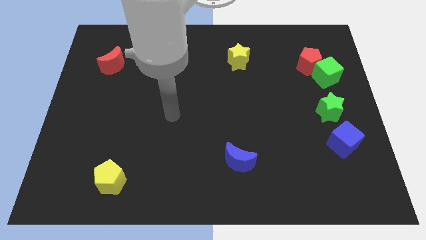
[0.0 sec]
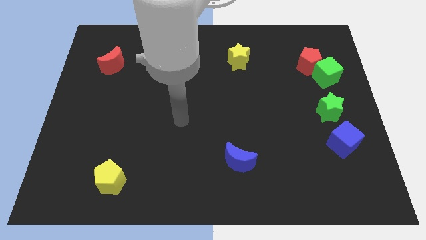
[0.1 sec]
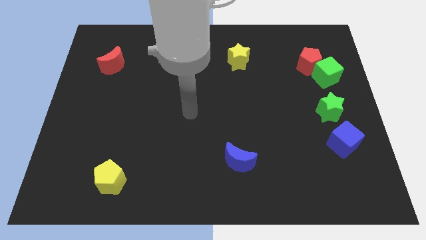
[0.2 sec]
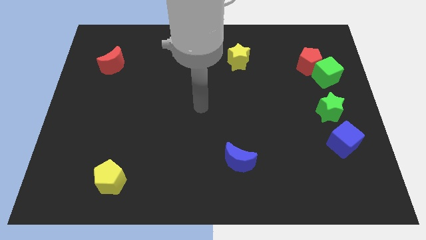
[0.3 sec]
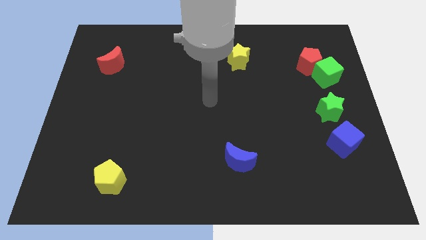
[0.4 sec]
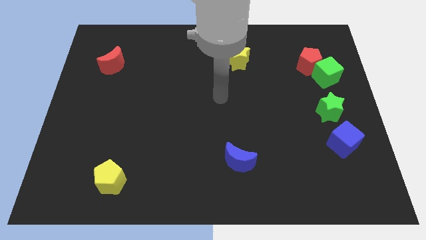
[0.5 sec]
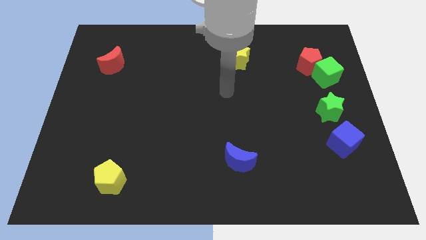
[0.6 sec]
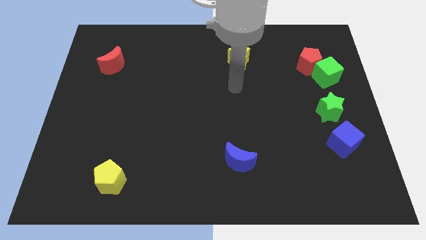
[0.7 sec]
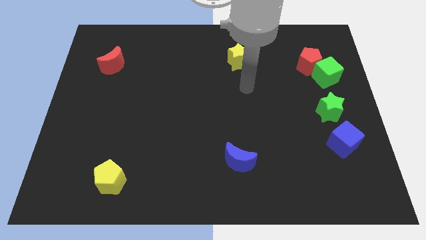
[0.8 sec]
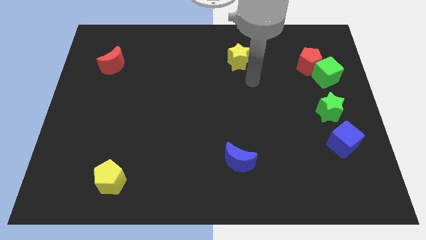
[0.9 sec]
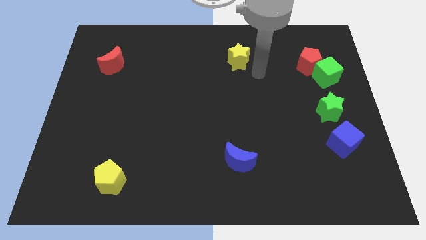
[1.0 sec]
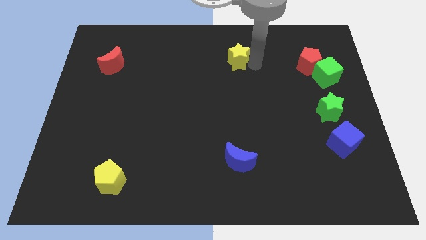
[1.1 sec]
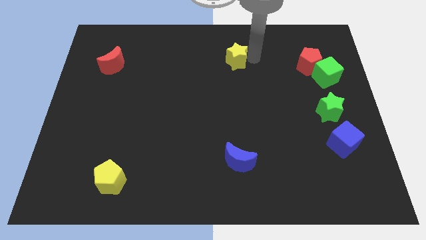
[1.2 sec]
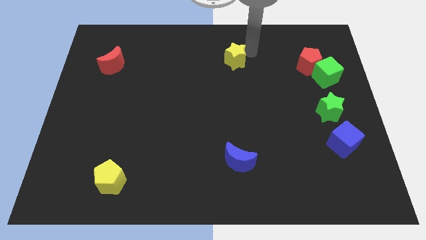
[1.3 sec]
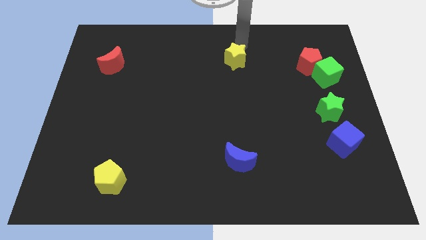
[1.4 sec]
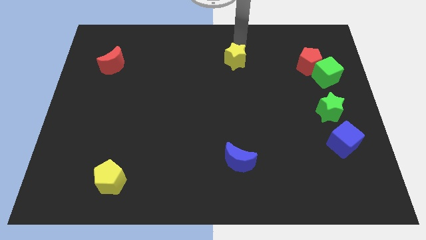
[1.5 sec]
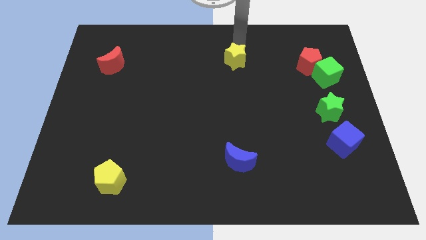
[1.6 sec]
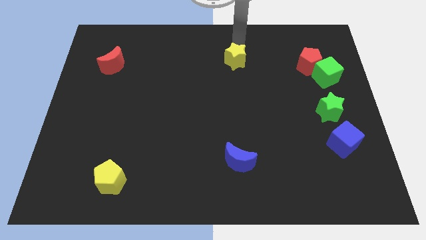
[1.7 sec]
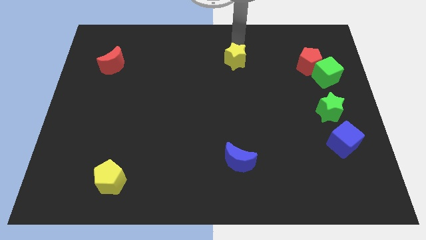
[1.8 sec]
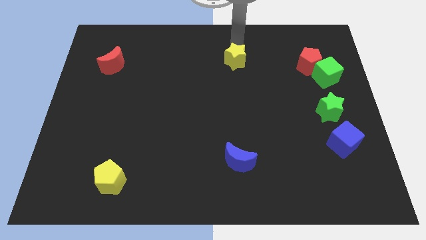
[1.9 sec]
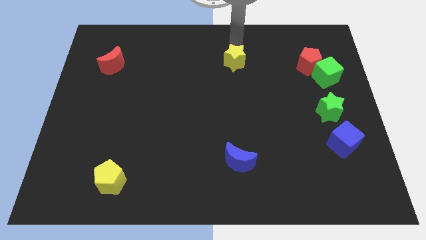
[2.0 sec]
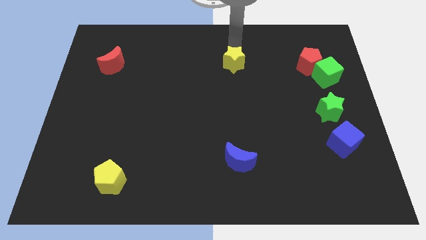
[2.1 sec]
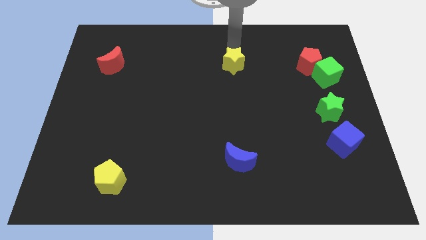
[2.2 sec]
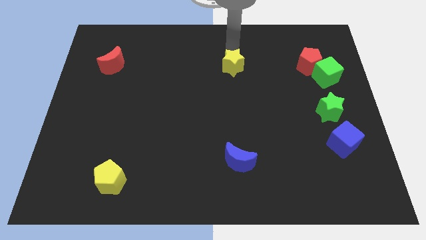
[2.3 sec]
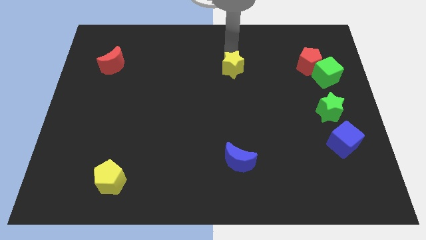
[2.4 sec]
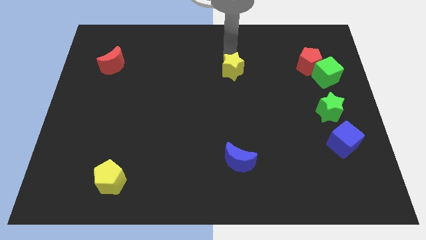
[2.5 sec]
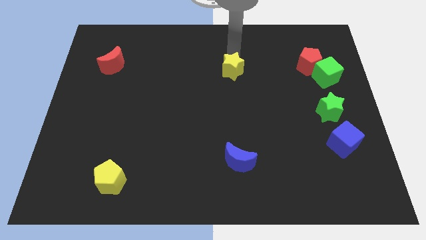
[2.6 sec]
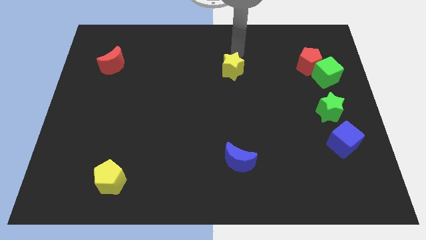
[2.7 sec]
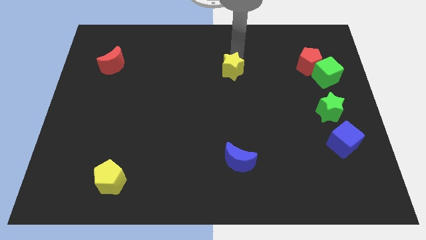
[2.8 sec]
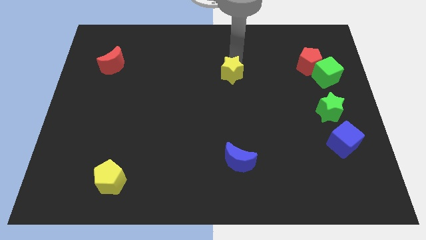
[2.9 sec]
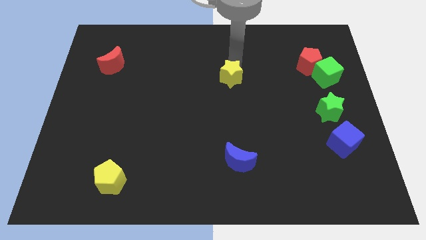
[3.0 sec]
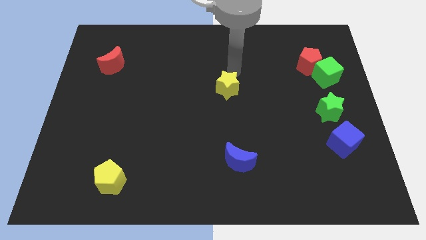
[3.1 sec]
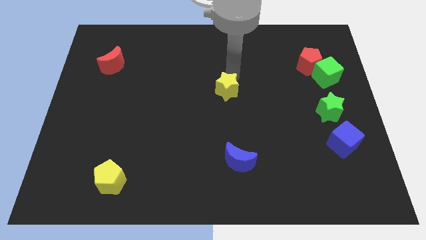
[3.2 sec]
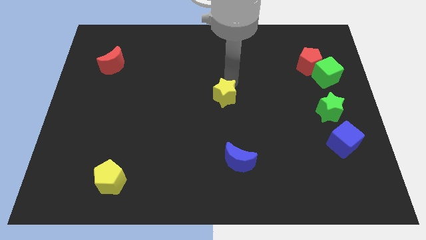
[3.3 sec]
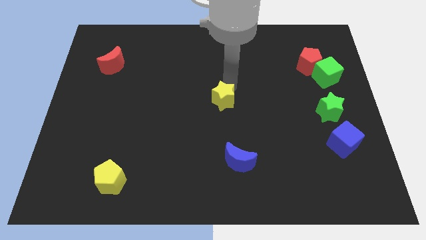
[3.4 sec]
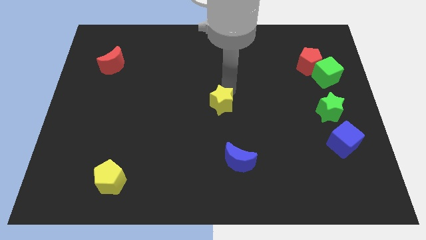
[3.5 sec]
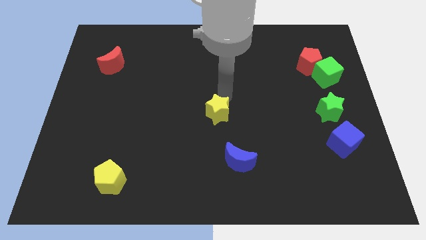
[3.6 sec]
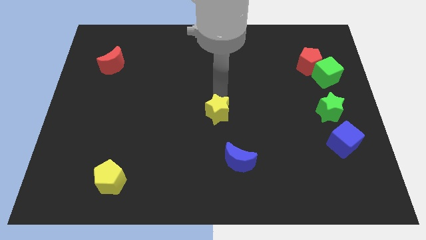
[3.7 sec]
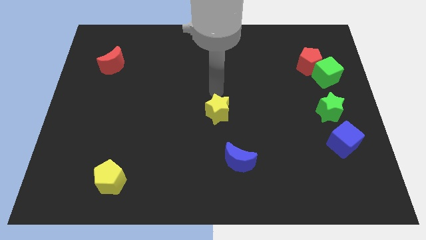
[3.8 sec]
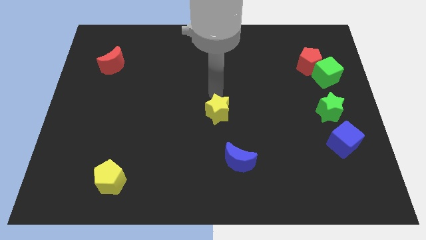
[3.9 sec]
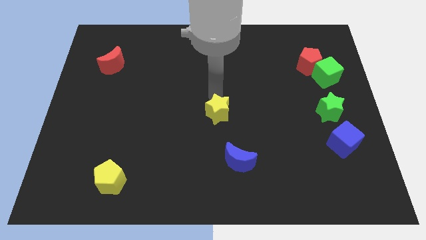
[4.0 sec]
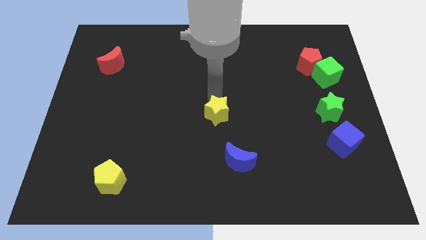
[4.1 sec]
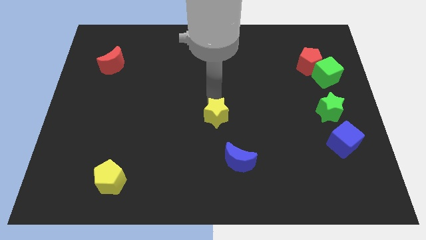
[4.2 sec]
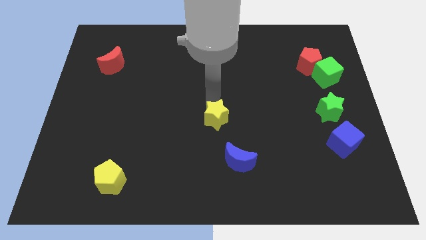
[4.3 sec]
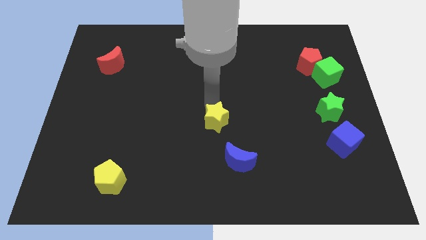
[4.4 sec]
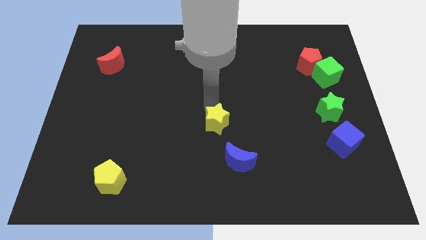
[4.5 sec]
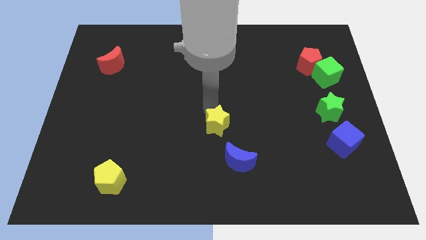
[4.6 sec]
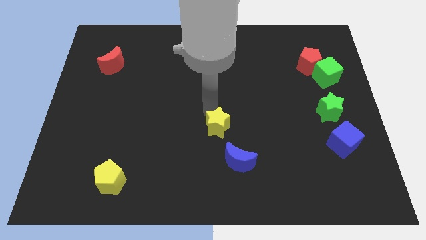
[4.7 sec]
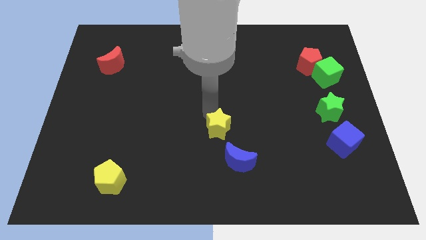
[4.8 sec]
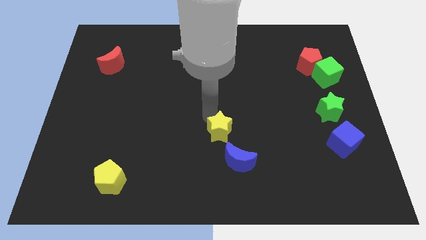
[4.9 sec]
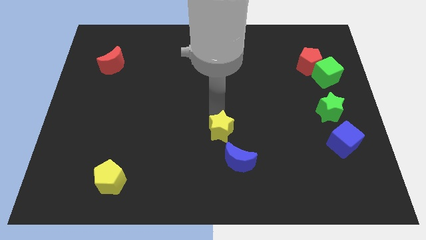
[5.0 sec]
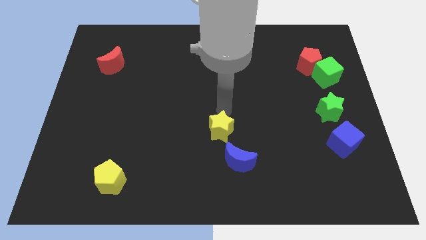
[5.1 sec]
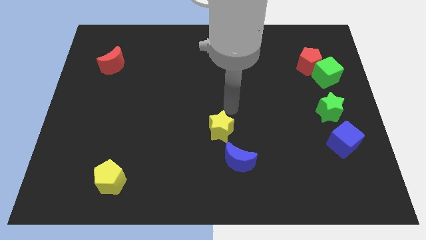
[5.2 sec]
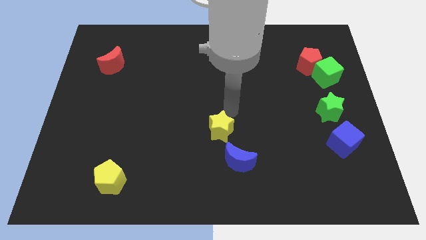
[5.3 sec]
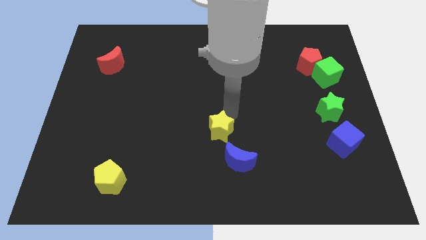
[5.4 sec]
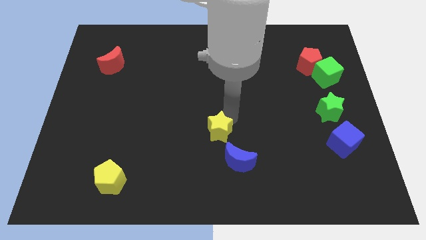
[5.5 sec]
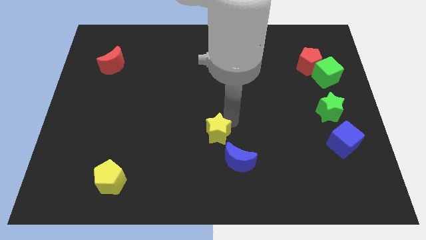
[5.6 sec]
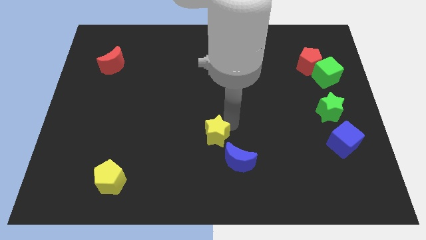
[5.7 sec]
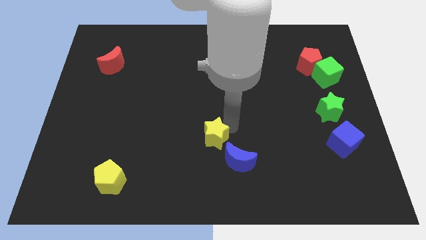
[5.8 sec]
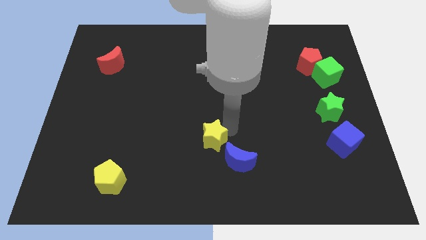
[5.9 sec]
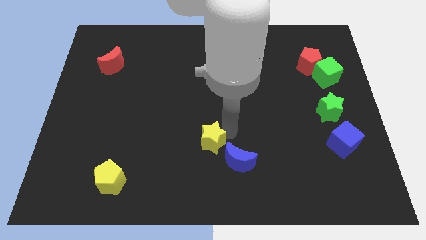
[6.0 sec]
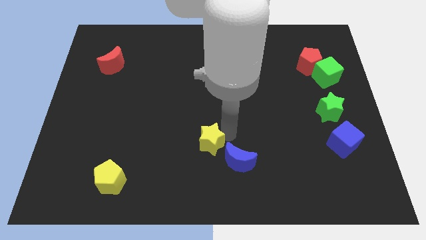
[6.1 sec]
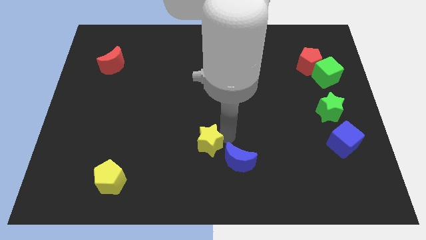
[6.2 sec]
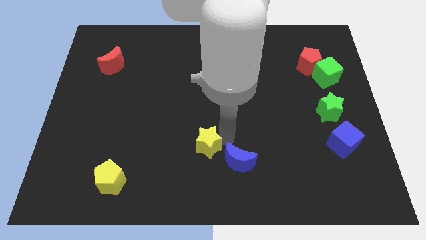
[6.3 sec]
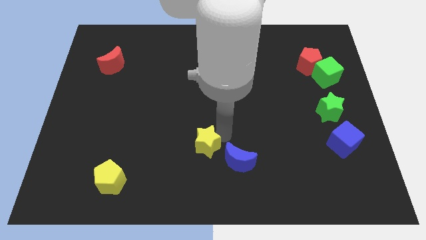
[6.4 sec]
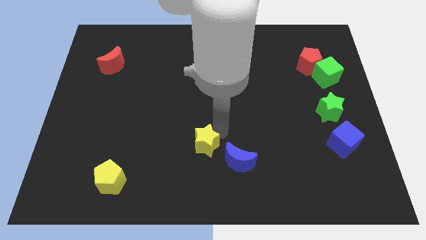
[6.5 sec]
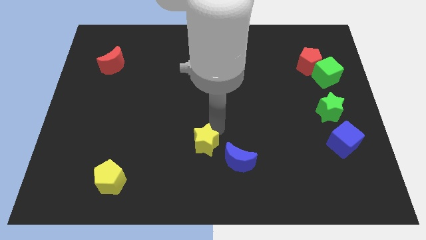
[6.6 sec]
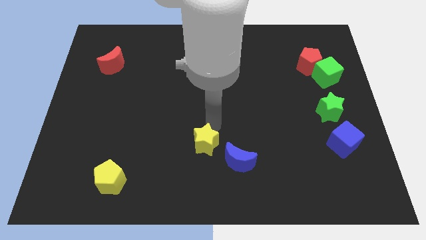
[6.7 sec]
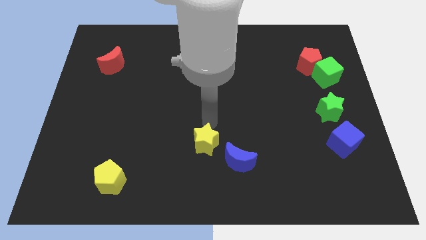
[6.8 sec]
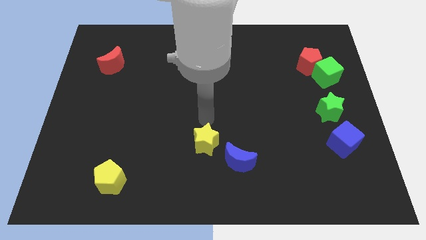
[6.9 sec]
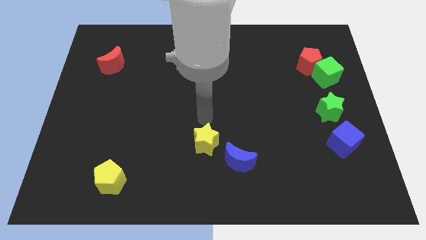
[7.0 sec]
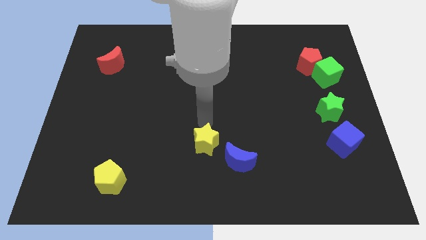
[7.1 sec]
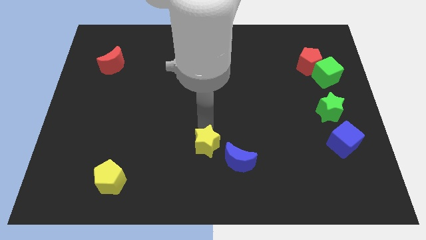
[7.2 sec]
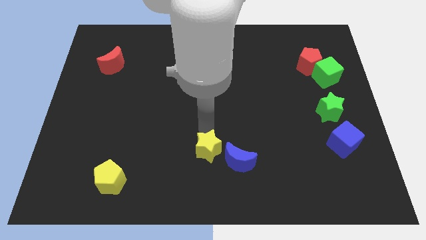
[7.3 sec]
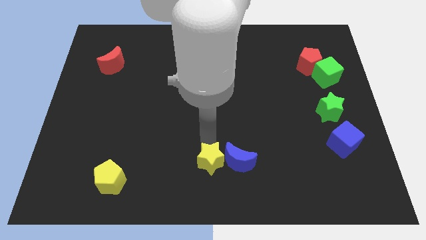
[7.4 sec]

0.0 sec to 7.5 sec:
slide the yellow star diagonally down and to the left of the blue moon

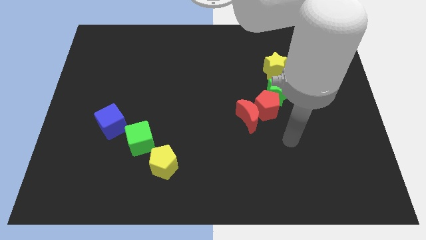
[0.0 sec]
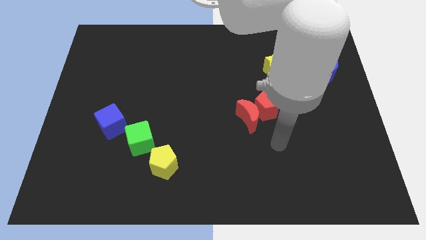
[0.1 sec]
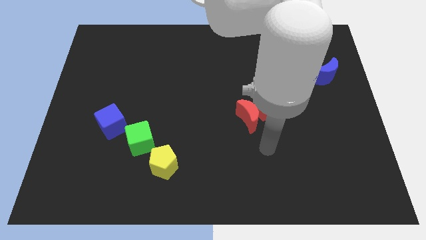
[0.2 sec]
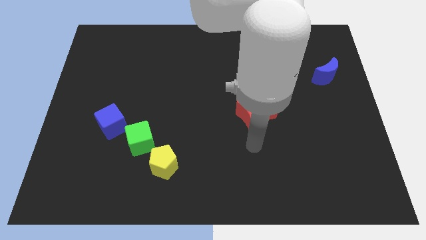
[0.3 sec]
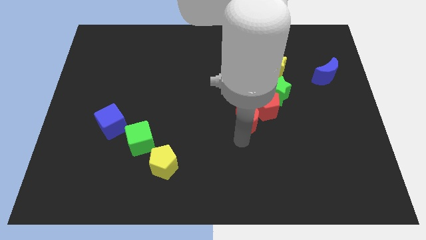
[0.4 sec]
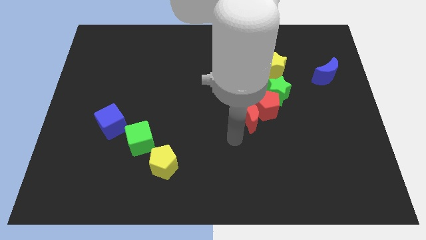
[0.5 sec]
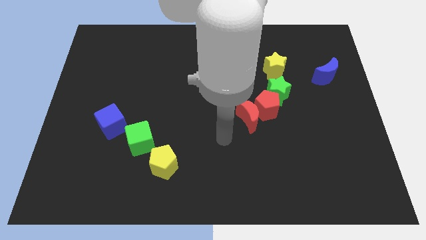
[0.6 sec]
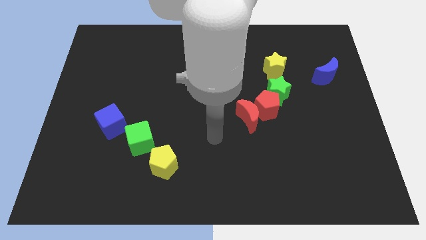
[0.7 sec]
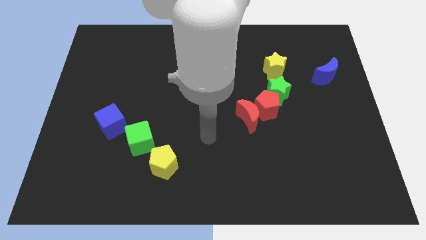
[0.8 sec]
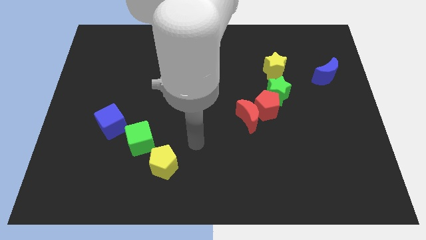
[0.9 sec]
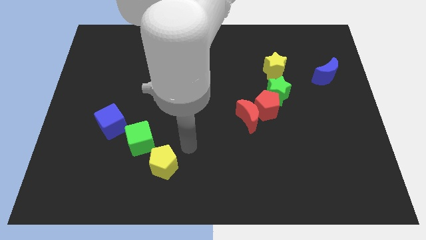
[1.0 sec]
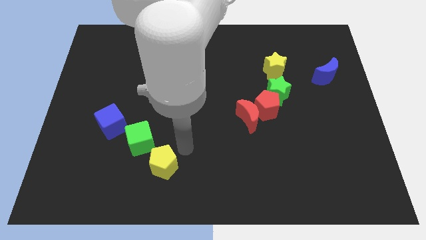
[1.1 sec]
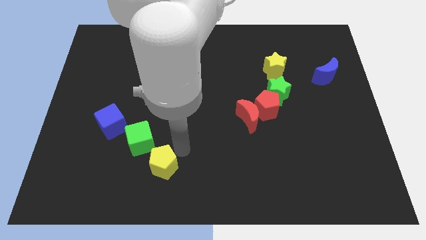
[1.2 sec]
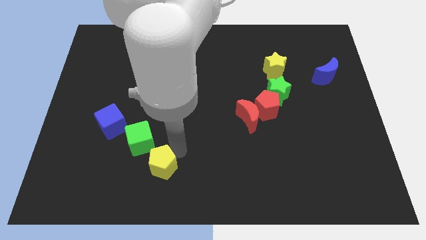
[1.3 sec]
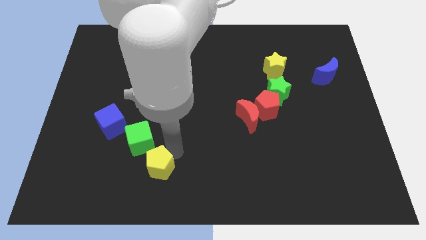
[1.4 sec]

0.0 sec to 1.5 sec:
slide the yellow pentagon below the green cube
